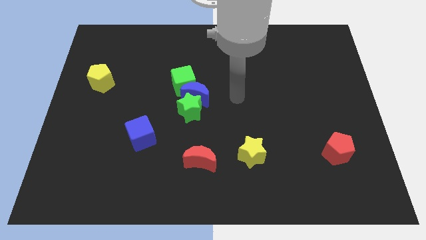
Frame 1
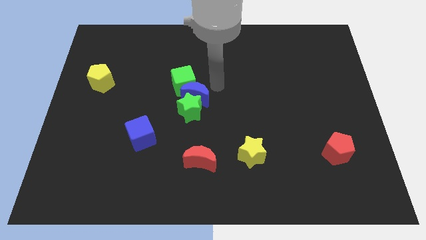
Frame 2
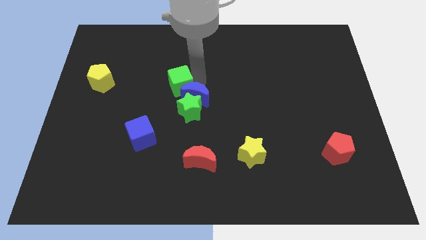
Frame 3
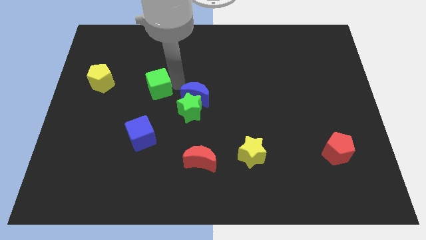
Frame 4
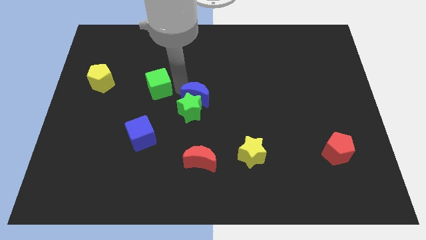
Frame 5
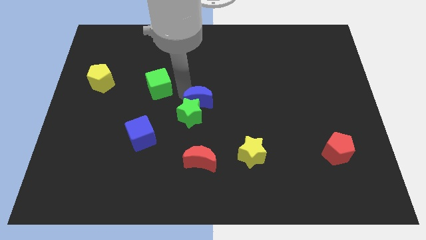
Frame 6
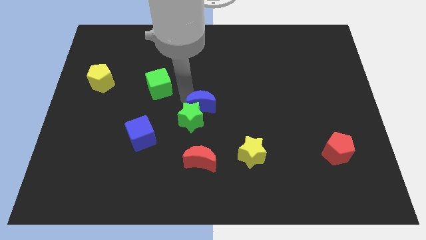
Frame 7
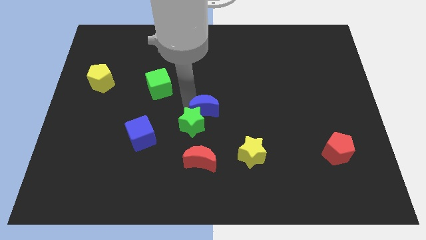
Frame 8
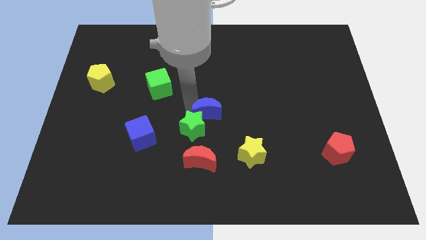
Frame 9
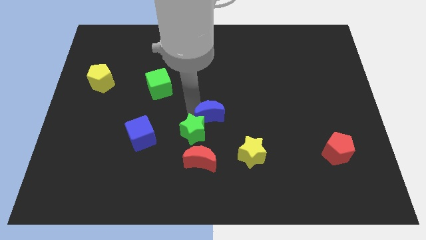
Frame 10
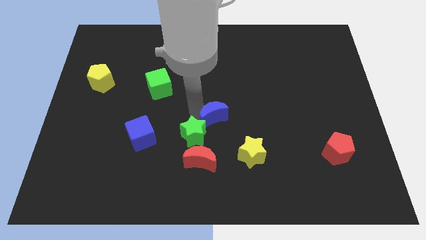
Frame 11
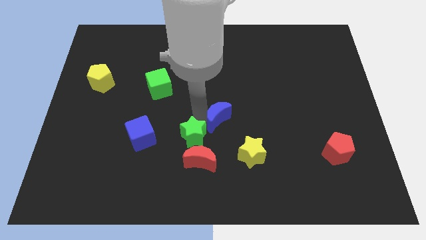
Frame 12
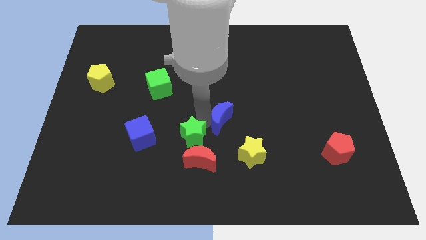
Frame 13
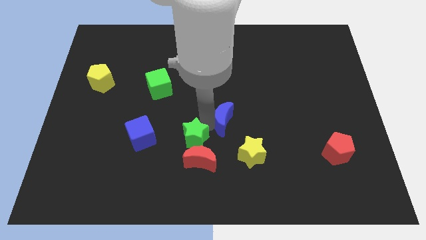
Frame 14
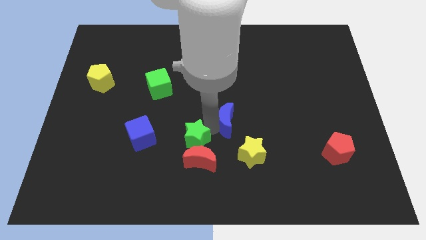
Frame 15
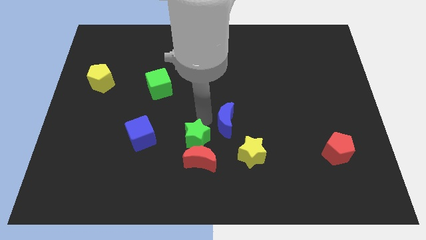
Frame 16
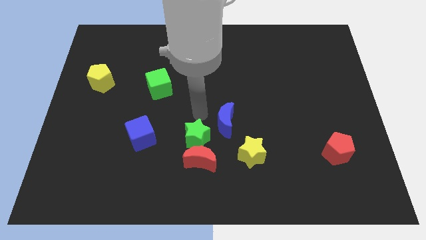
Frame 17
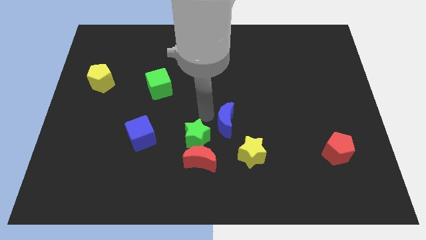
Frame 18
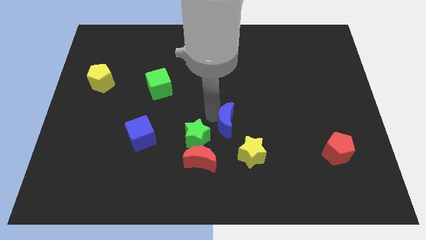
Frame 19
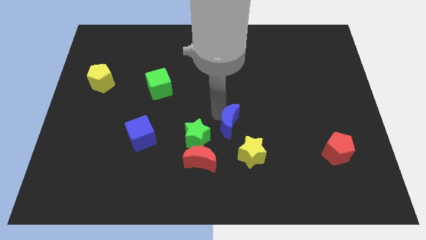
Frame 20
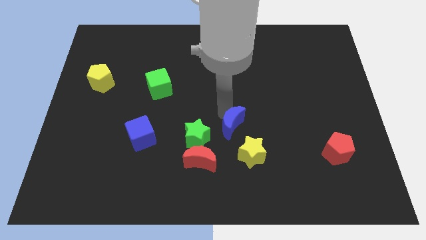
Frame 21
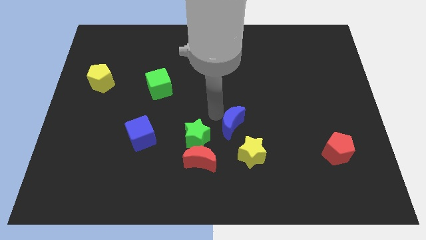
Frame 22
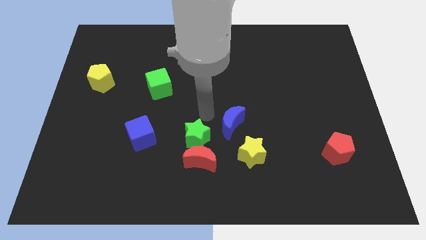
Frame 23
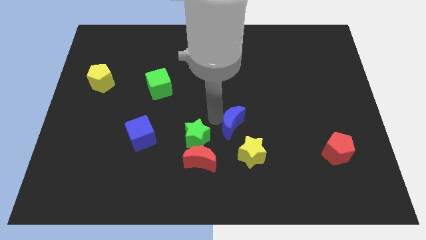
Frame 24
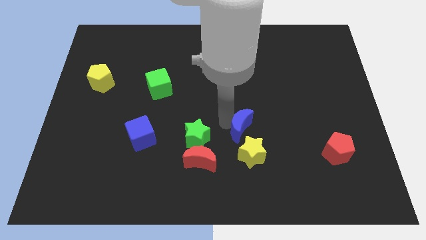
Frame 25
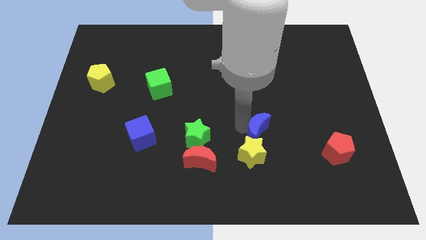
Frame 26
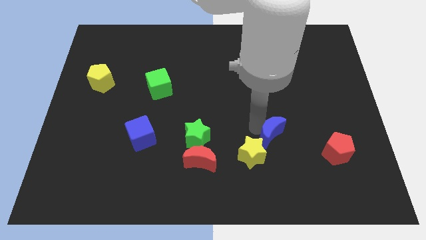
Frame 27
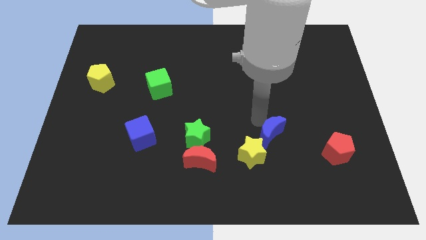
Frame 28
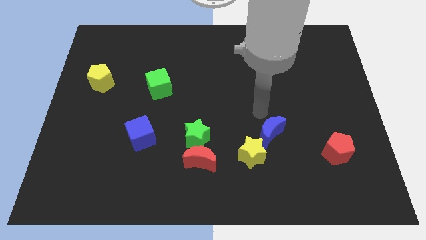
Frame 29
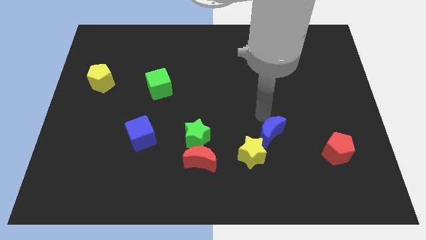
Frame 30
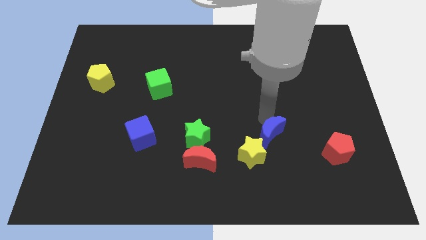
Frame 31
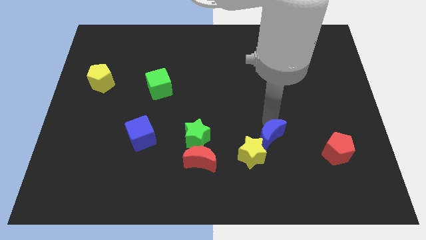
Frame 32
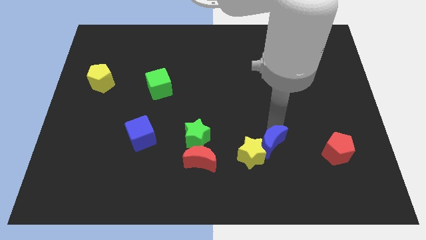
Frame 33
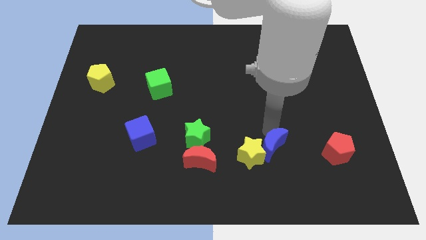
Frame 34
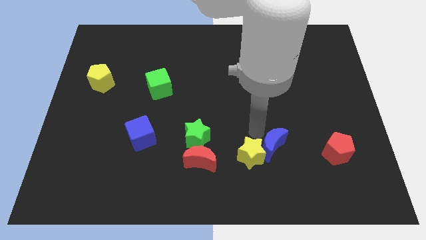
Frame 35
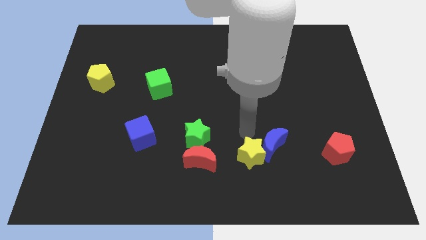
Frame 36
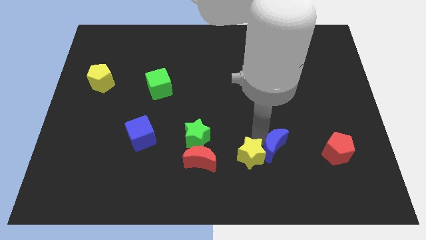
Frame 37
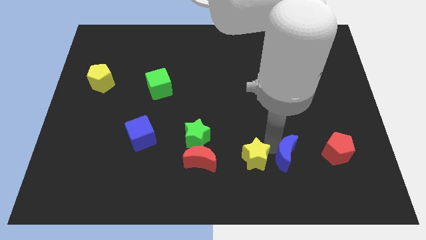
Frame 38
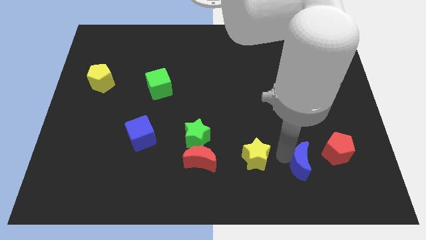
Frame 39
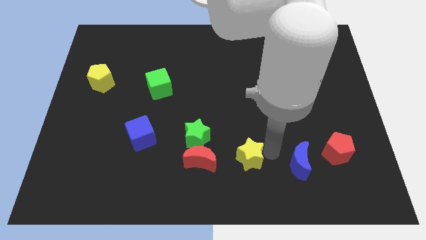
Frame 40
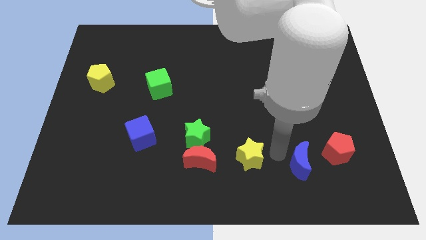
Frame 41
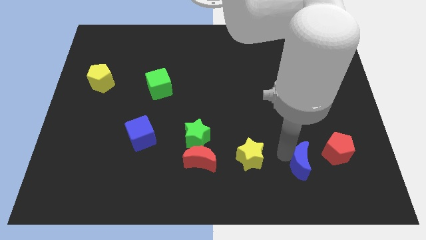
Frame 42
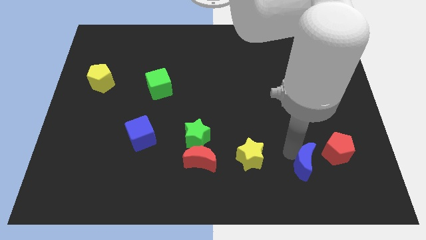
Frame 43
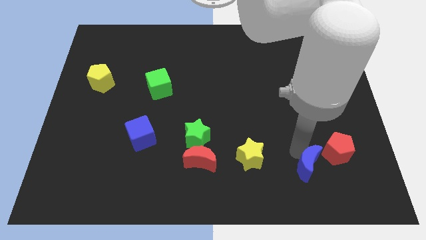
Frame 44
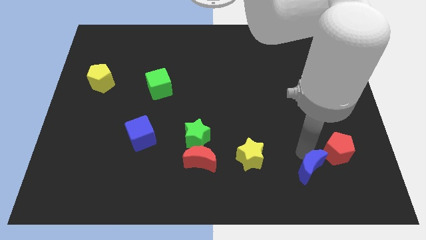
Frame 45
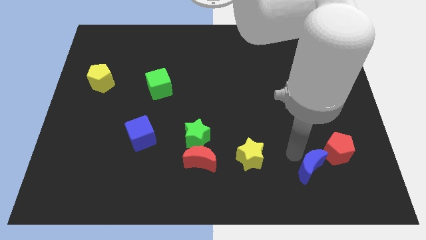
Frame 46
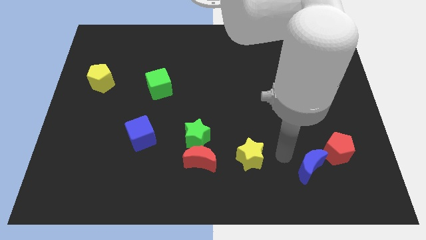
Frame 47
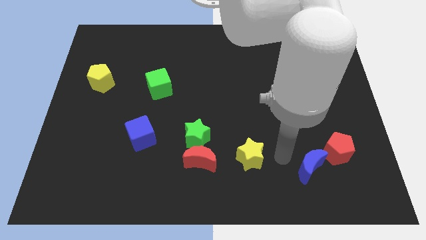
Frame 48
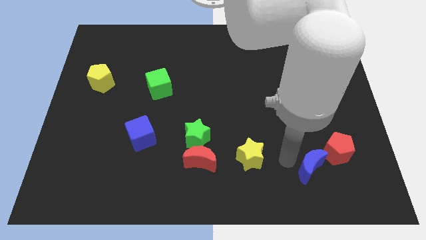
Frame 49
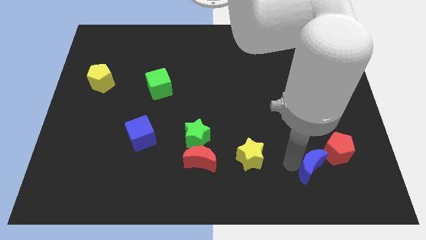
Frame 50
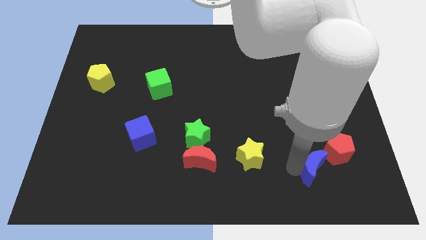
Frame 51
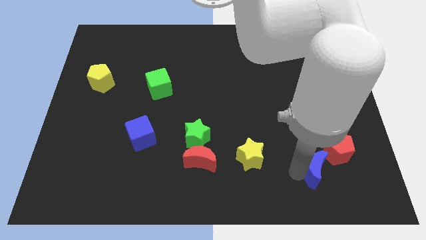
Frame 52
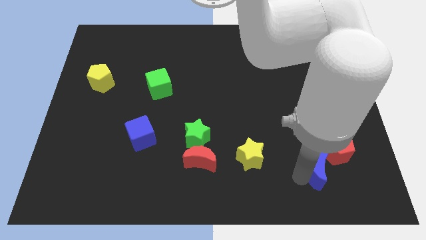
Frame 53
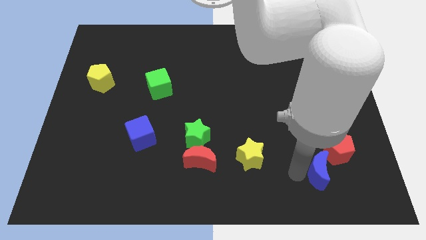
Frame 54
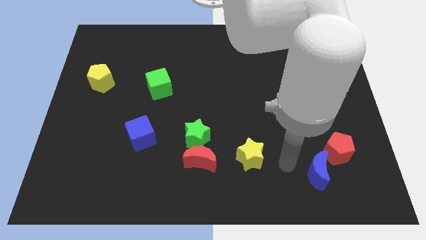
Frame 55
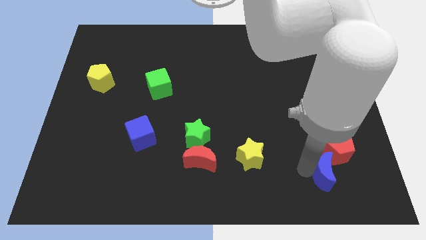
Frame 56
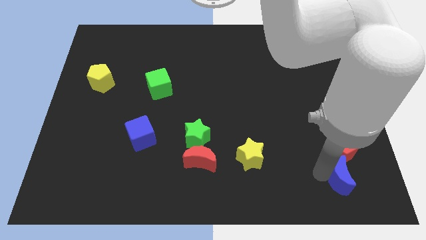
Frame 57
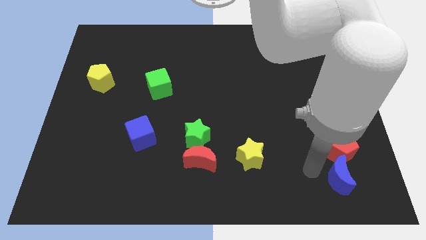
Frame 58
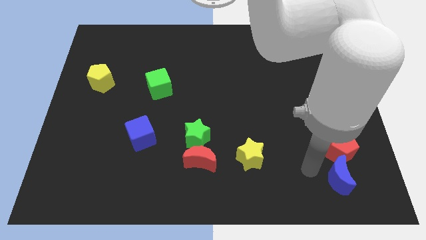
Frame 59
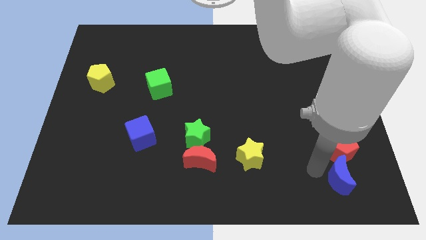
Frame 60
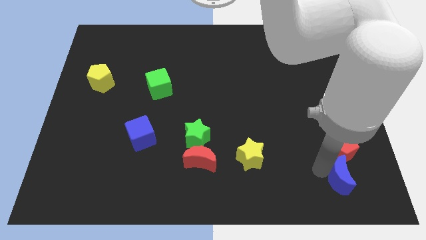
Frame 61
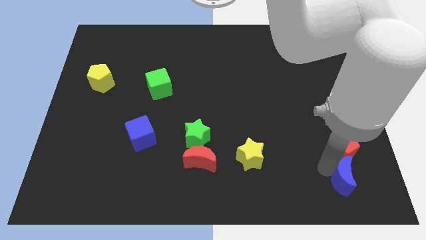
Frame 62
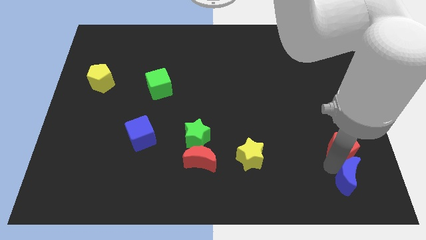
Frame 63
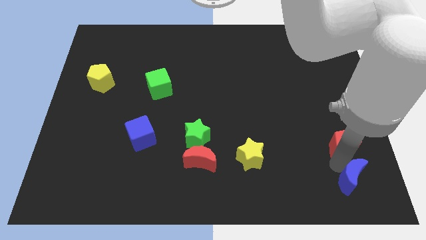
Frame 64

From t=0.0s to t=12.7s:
push the blue moon to the bottom right of the board

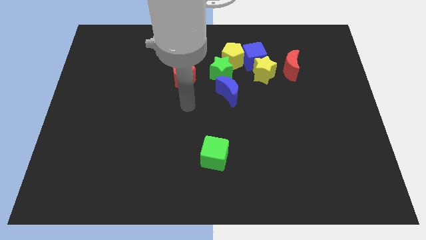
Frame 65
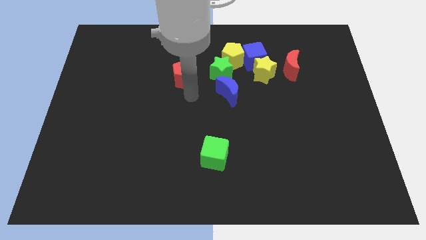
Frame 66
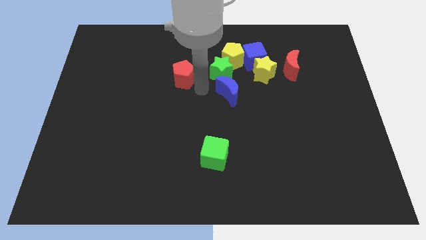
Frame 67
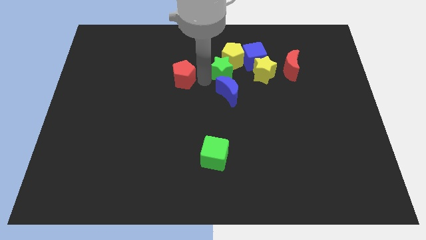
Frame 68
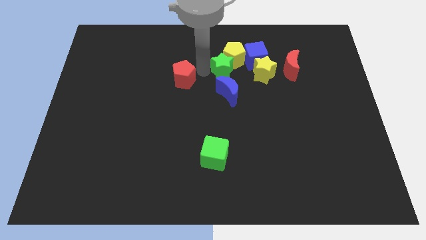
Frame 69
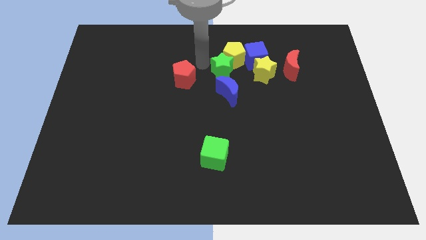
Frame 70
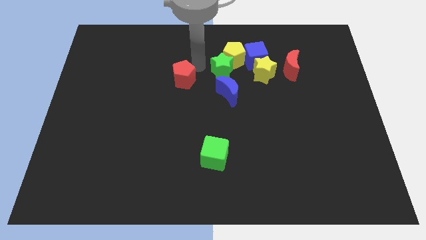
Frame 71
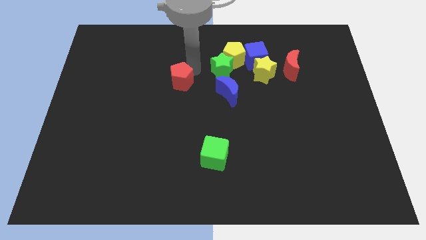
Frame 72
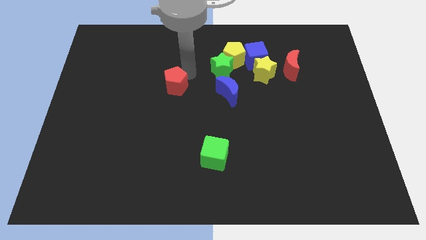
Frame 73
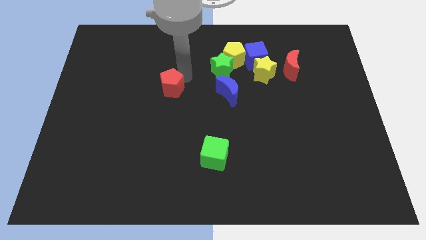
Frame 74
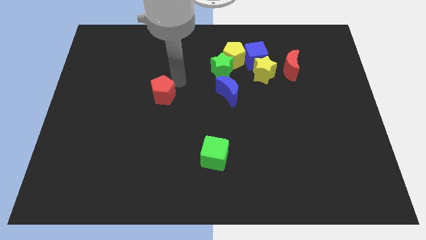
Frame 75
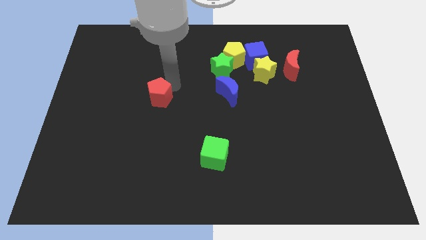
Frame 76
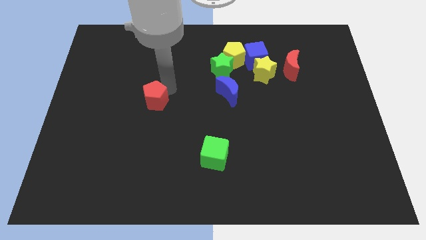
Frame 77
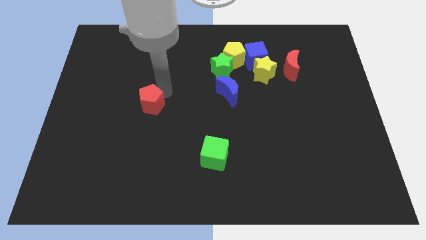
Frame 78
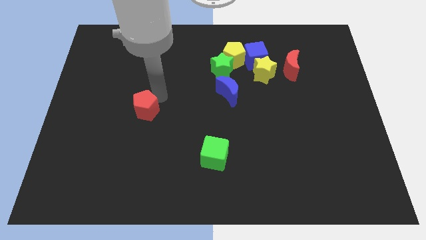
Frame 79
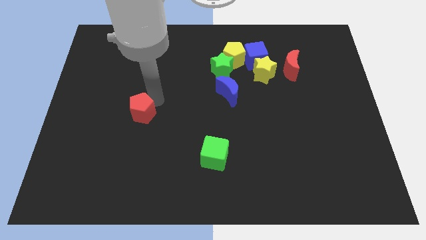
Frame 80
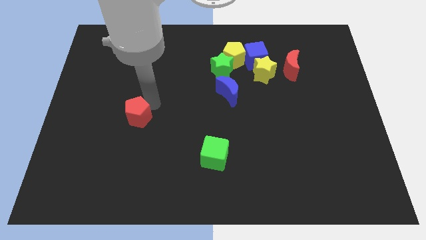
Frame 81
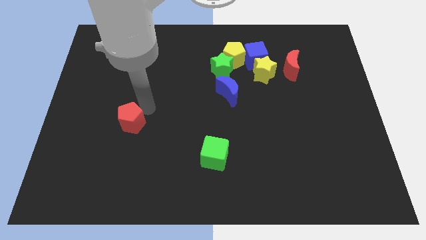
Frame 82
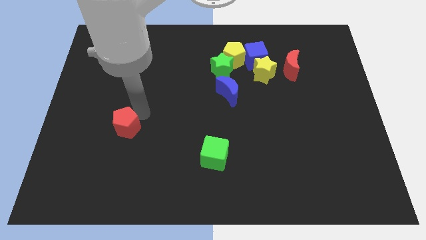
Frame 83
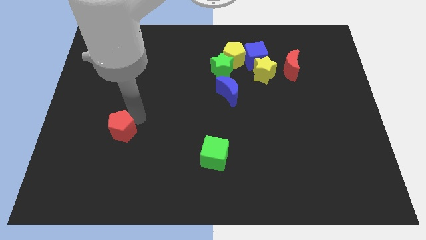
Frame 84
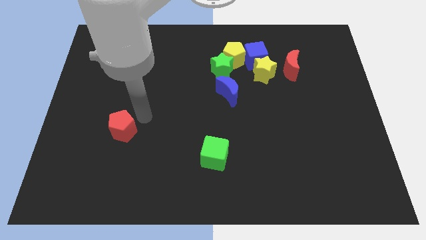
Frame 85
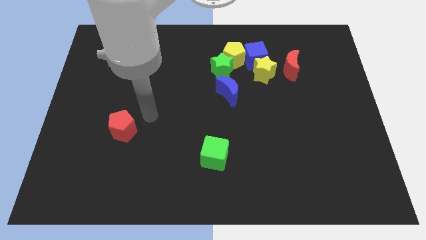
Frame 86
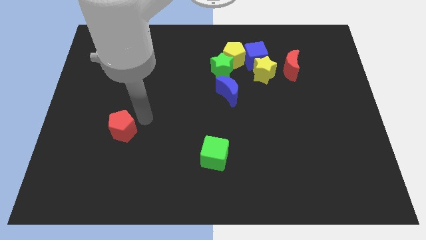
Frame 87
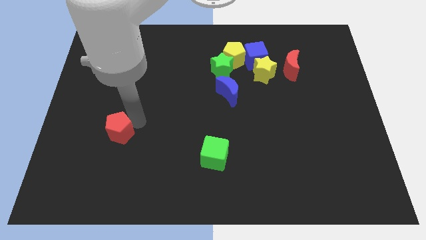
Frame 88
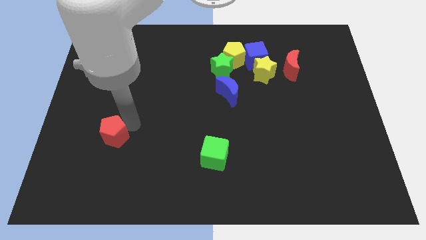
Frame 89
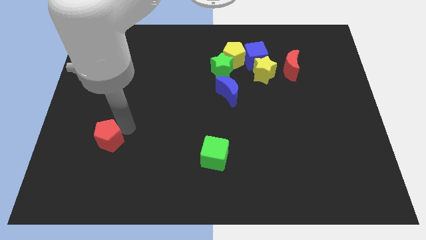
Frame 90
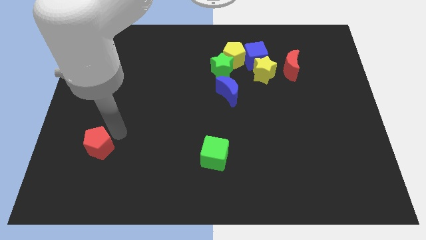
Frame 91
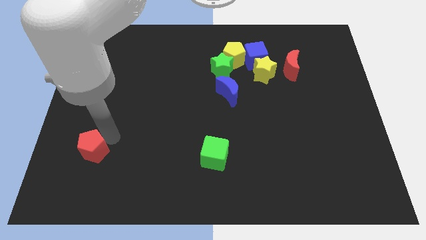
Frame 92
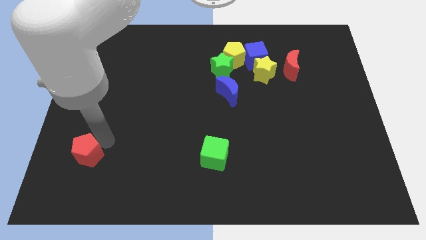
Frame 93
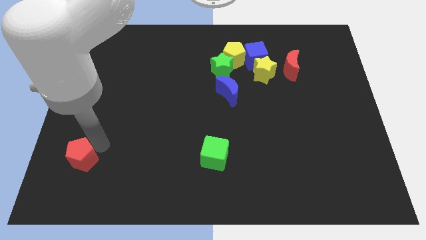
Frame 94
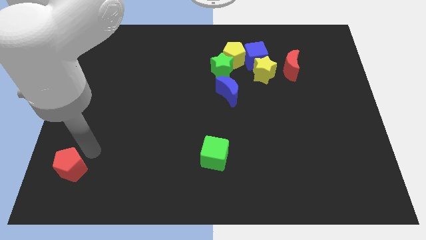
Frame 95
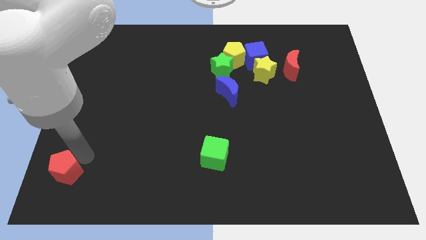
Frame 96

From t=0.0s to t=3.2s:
push the red pentagon to the bottom left of the board
